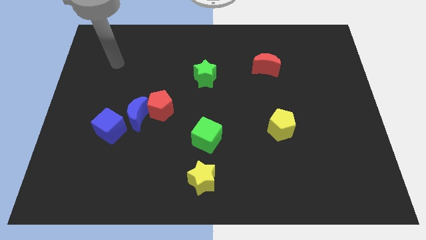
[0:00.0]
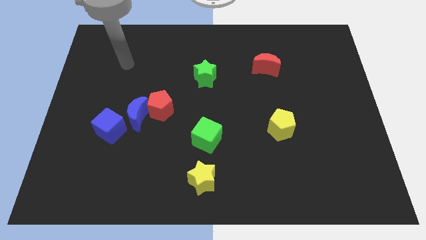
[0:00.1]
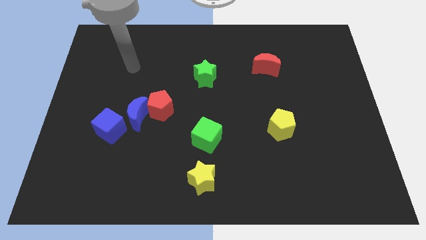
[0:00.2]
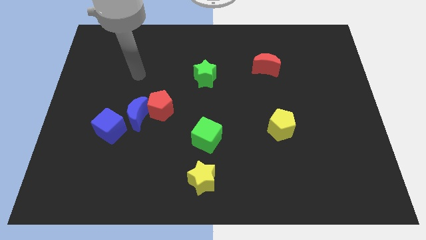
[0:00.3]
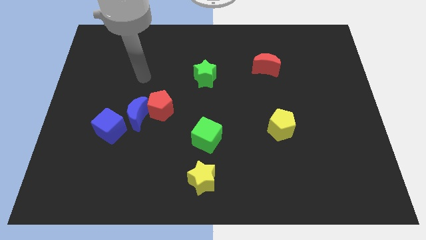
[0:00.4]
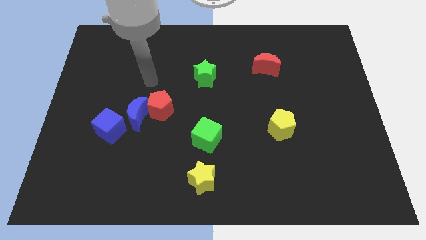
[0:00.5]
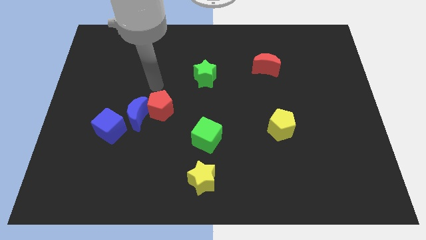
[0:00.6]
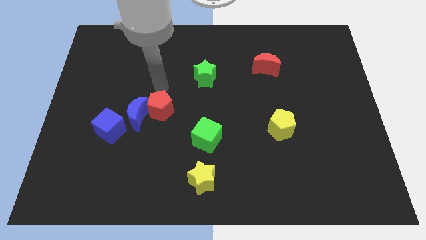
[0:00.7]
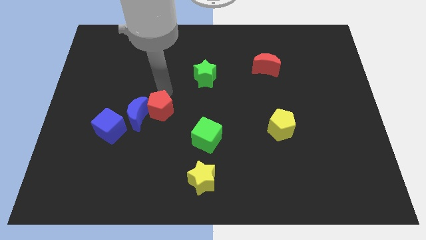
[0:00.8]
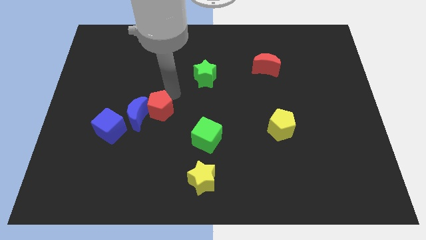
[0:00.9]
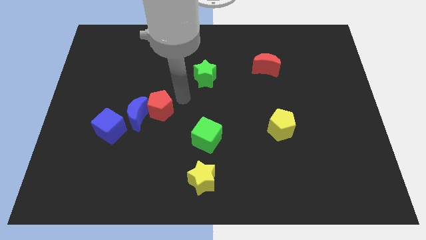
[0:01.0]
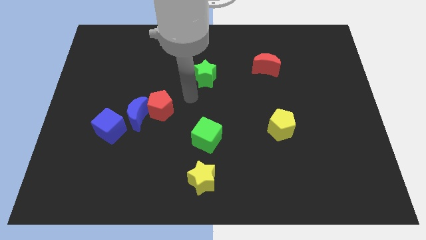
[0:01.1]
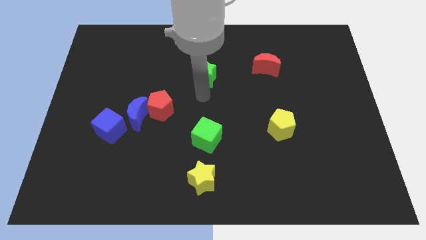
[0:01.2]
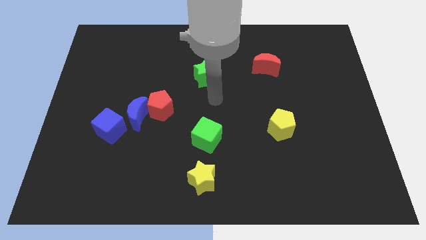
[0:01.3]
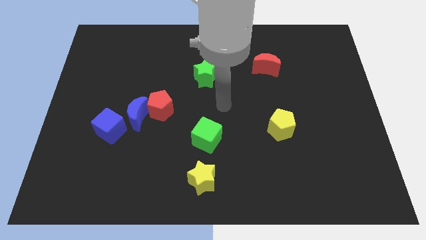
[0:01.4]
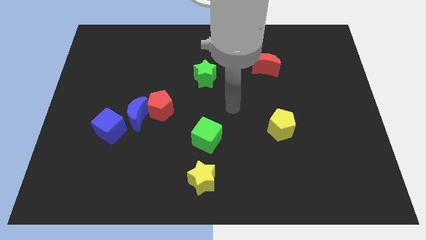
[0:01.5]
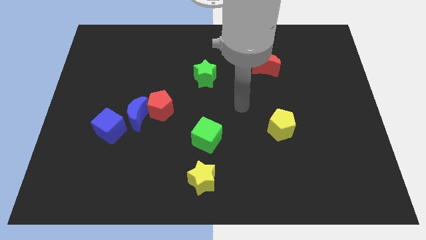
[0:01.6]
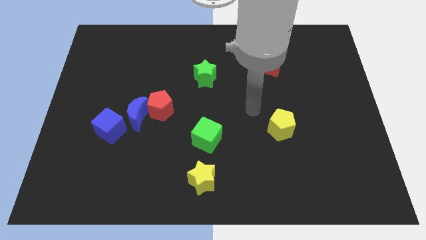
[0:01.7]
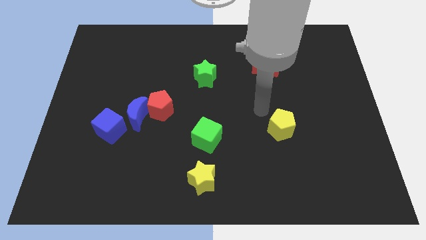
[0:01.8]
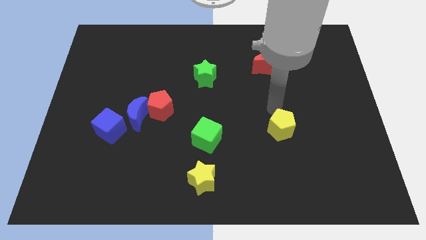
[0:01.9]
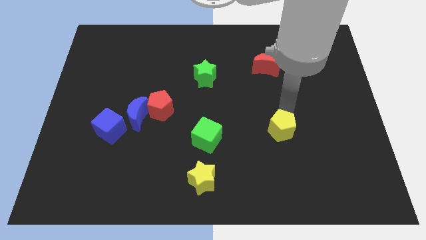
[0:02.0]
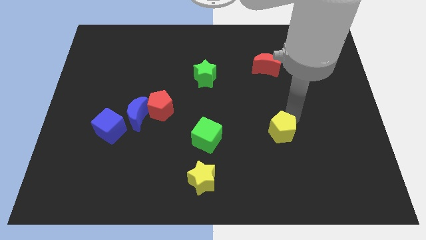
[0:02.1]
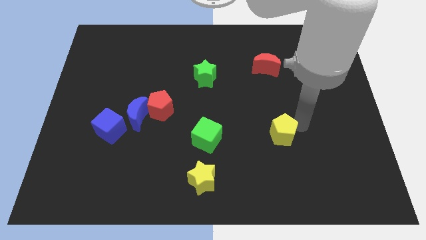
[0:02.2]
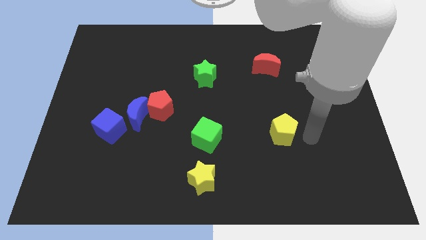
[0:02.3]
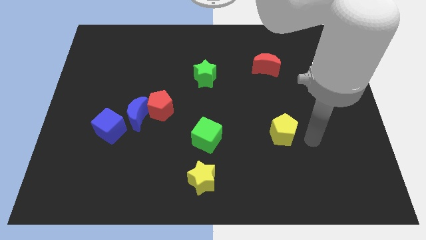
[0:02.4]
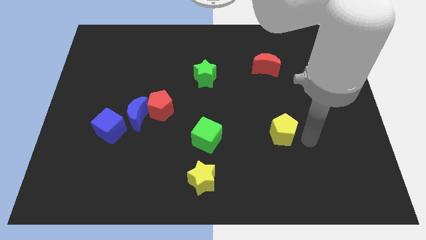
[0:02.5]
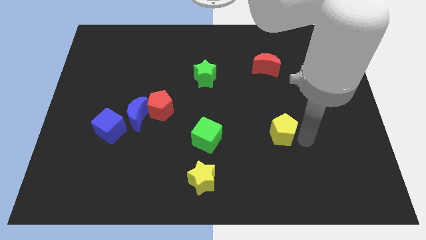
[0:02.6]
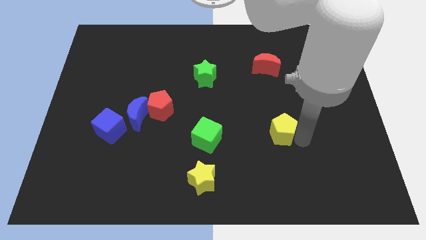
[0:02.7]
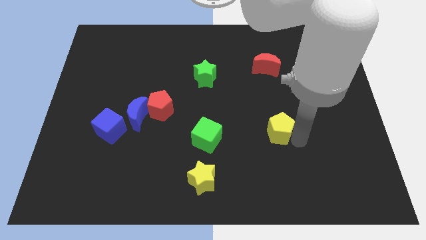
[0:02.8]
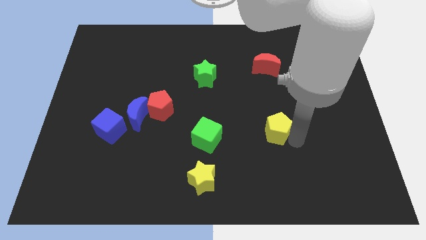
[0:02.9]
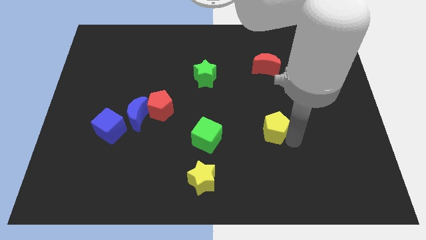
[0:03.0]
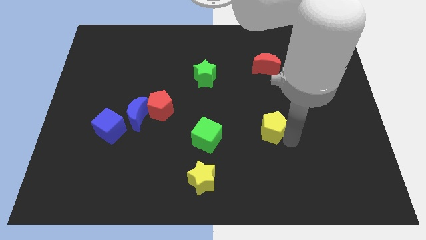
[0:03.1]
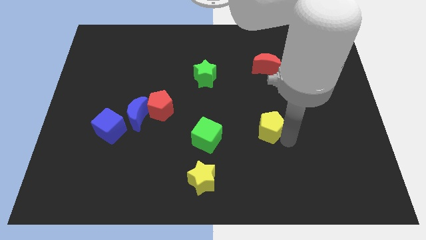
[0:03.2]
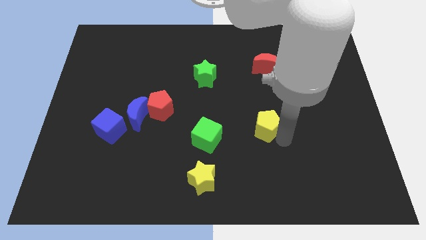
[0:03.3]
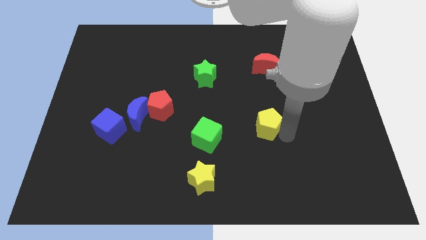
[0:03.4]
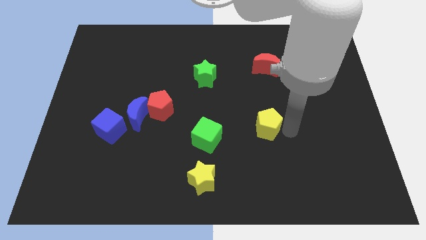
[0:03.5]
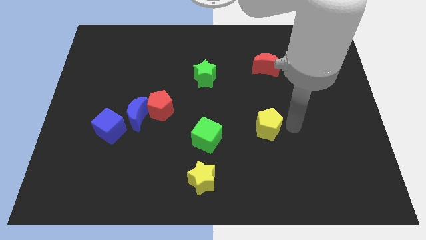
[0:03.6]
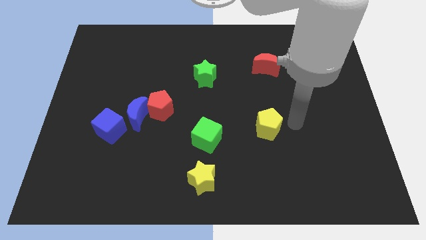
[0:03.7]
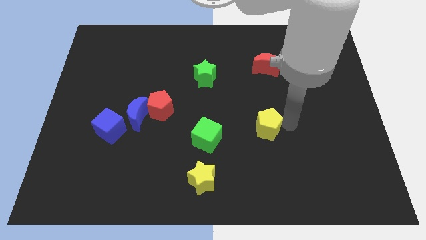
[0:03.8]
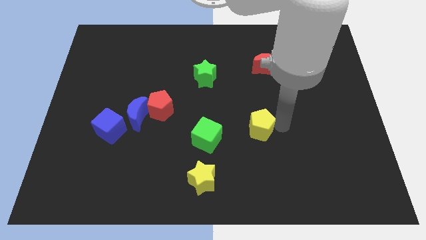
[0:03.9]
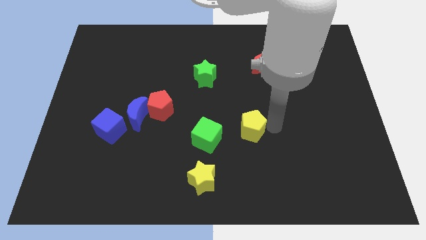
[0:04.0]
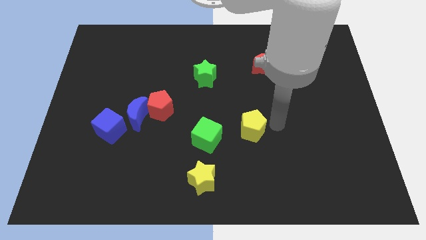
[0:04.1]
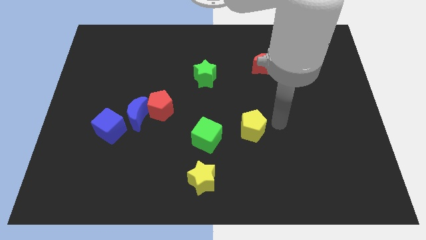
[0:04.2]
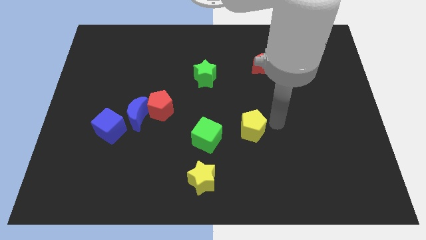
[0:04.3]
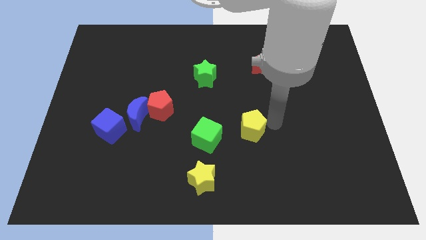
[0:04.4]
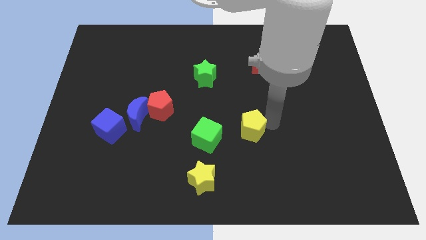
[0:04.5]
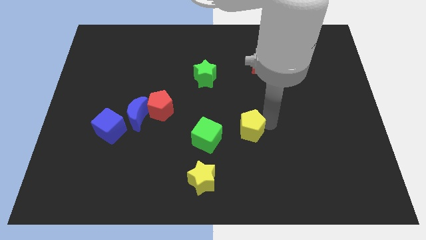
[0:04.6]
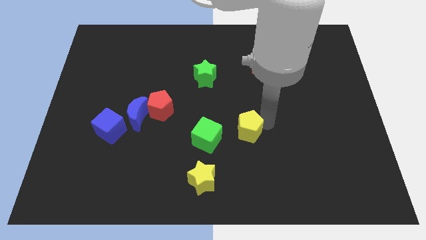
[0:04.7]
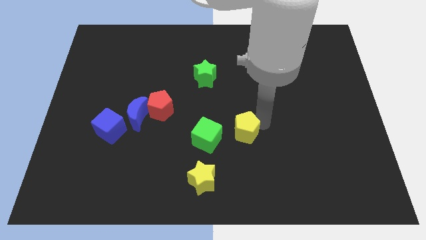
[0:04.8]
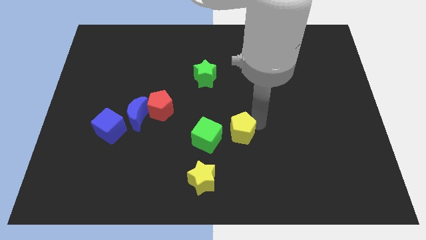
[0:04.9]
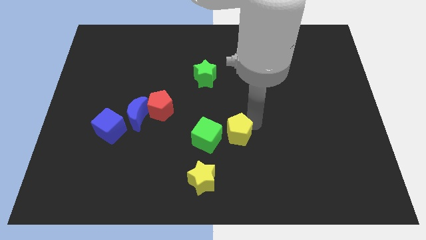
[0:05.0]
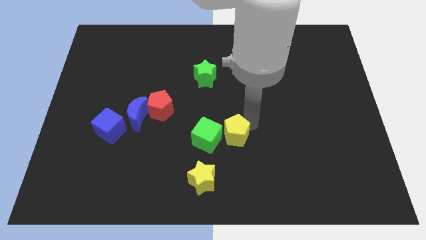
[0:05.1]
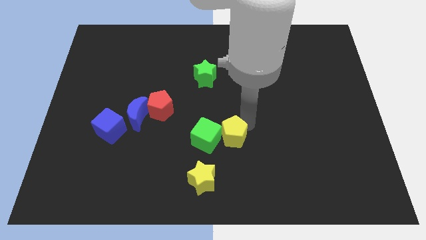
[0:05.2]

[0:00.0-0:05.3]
push the yellow pentagon towards the green cube

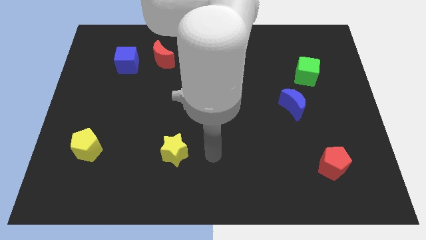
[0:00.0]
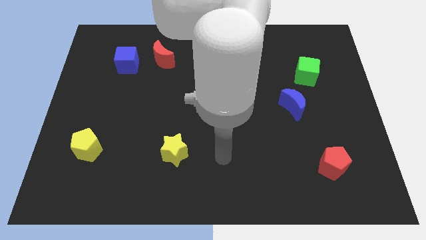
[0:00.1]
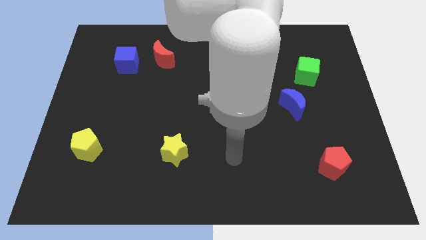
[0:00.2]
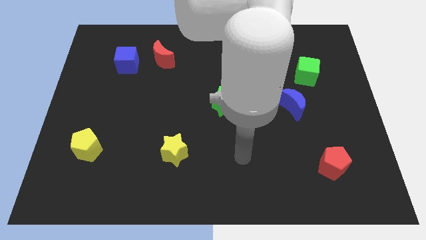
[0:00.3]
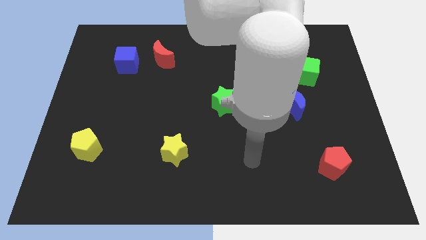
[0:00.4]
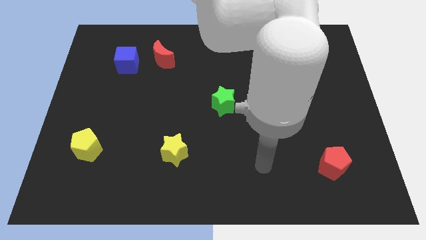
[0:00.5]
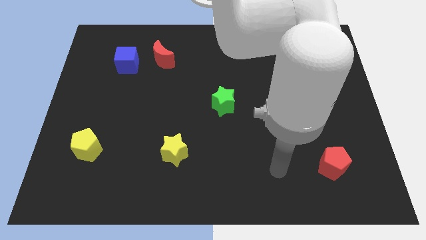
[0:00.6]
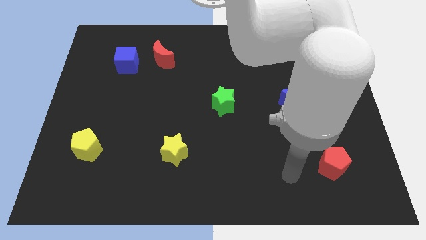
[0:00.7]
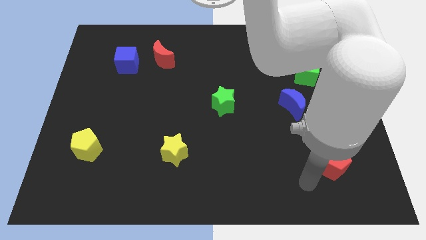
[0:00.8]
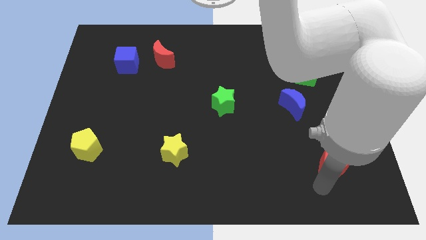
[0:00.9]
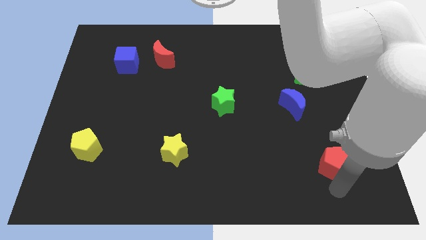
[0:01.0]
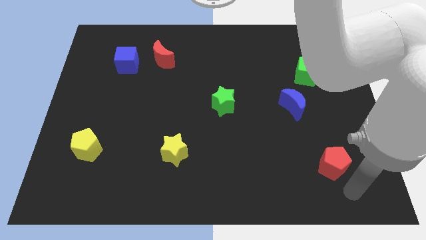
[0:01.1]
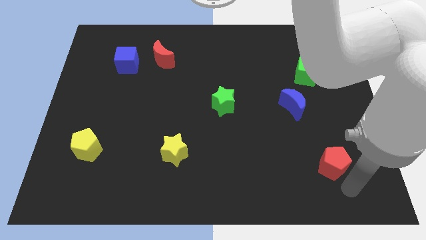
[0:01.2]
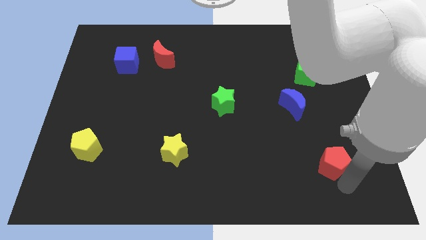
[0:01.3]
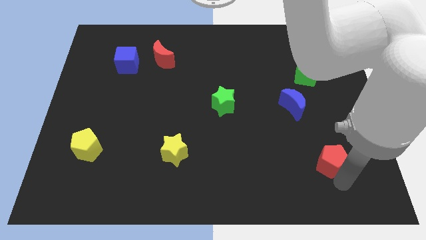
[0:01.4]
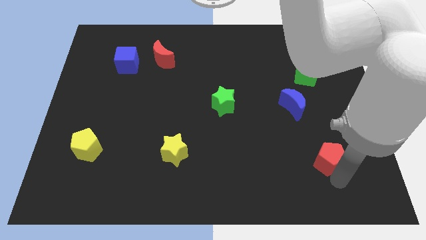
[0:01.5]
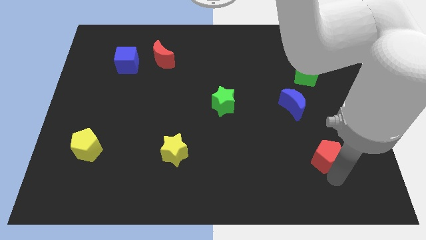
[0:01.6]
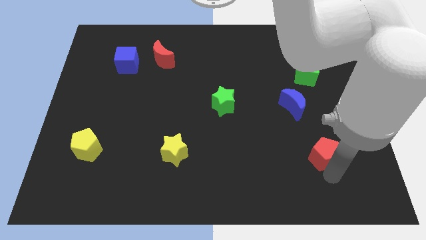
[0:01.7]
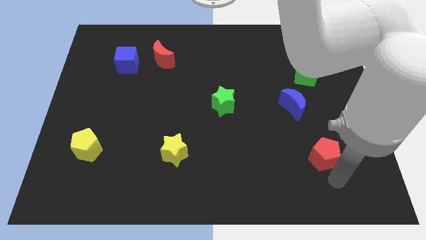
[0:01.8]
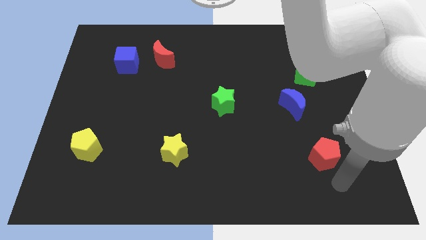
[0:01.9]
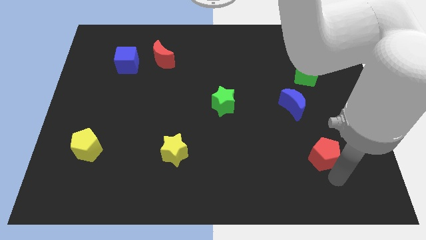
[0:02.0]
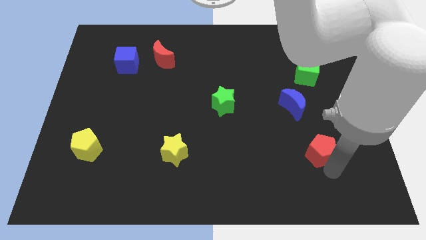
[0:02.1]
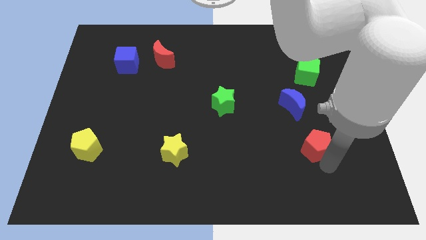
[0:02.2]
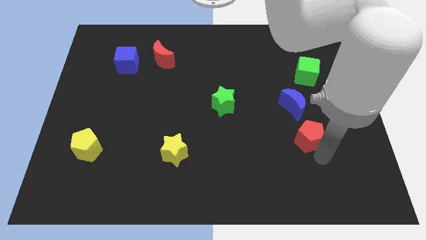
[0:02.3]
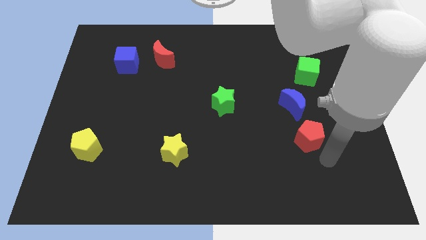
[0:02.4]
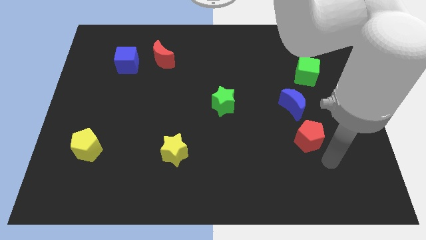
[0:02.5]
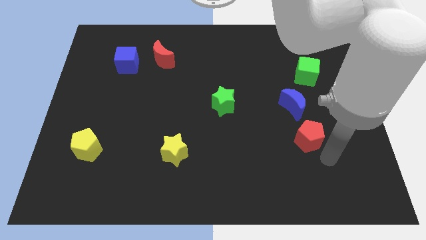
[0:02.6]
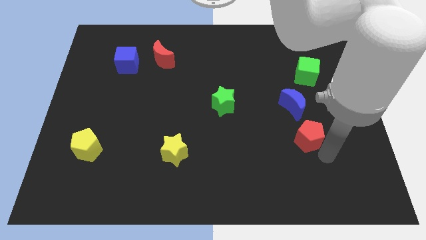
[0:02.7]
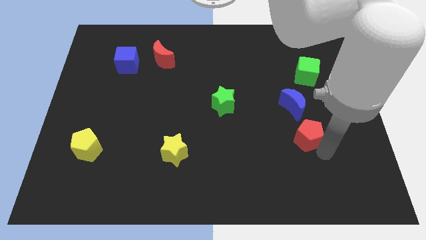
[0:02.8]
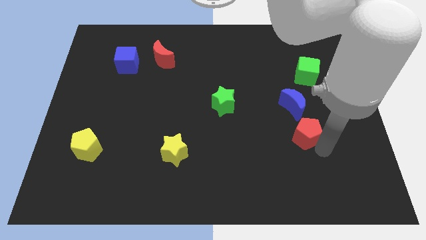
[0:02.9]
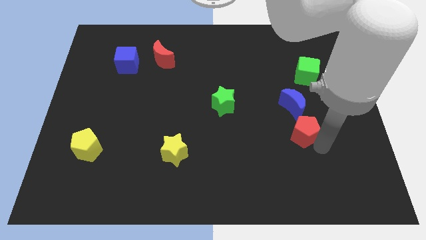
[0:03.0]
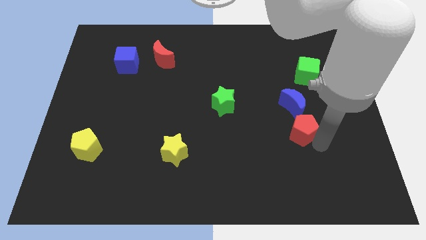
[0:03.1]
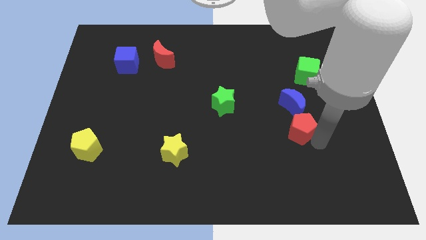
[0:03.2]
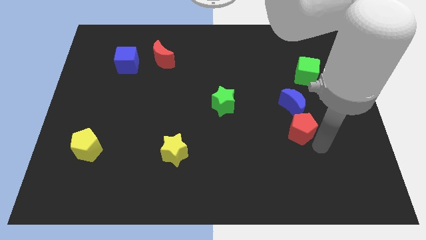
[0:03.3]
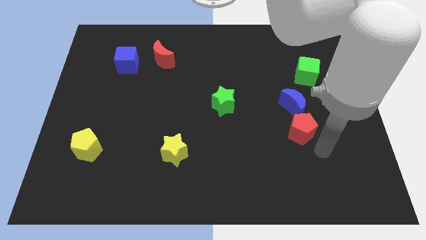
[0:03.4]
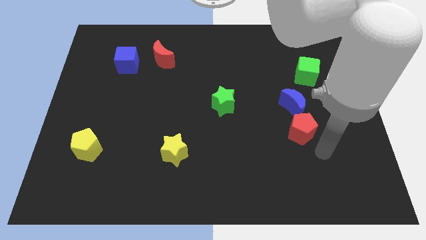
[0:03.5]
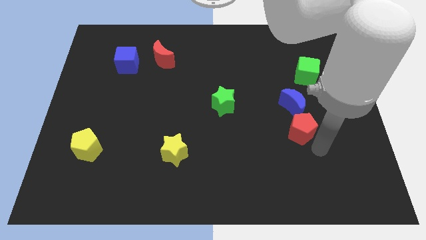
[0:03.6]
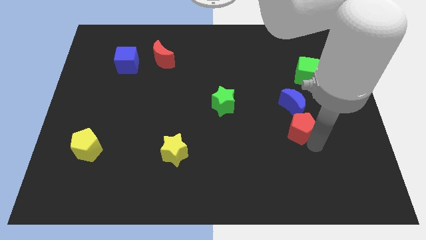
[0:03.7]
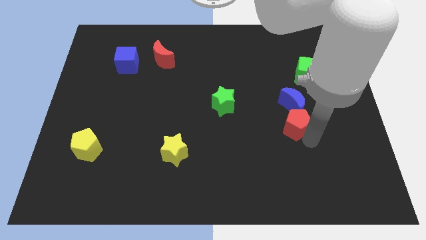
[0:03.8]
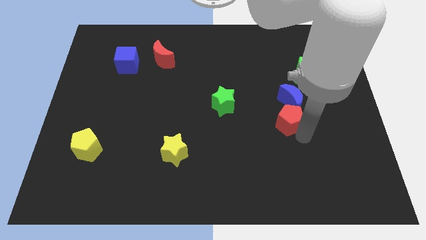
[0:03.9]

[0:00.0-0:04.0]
push the red pentagon to the blue moon
